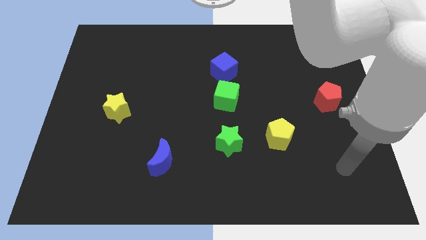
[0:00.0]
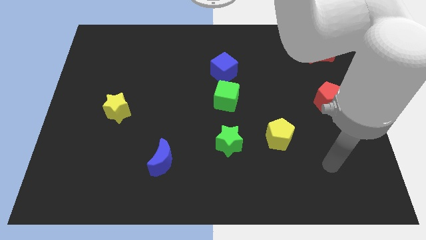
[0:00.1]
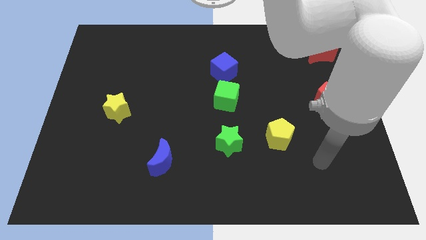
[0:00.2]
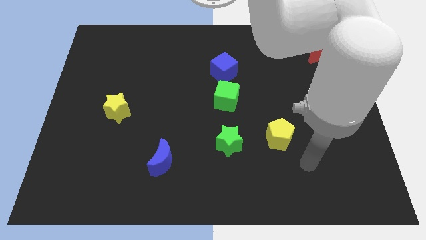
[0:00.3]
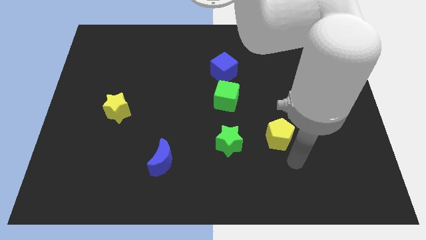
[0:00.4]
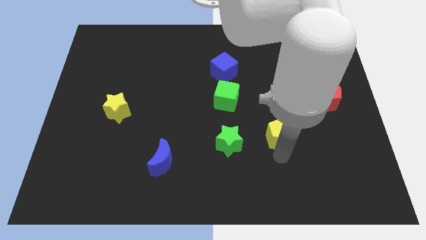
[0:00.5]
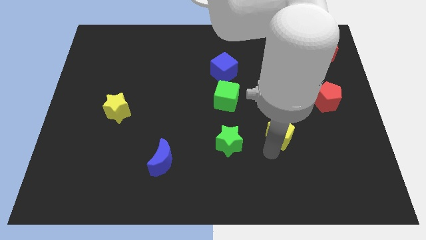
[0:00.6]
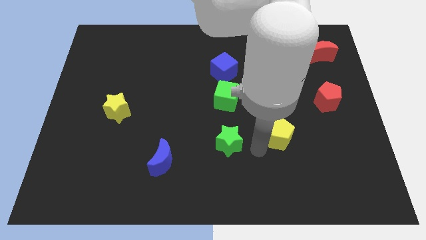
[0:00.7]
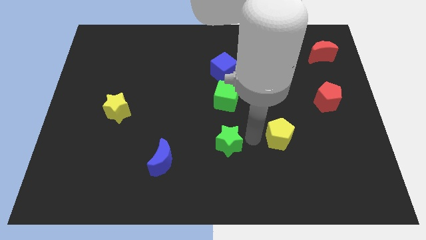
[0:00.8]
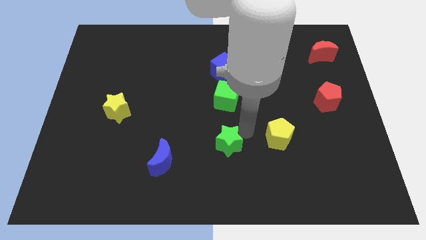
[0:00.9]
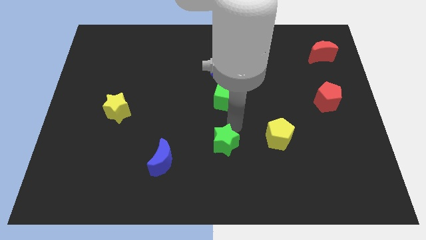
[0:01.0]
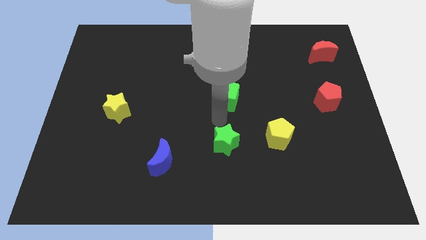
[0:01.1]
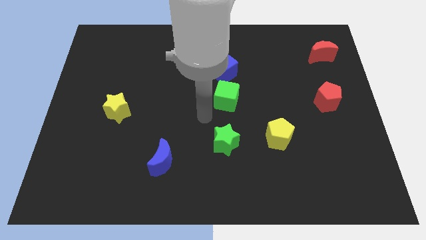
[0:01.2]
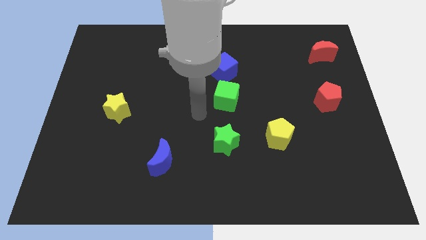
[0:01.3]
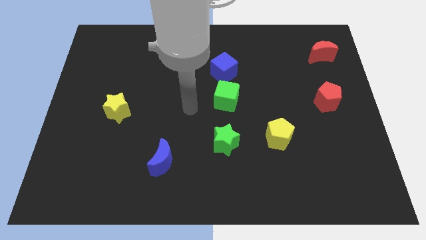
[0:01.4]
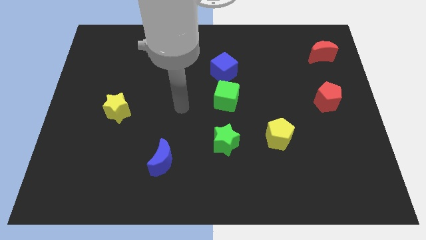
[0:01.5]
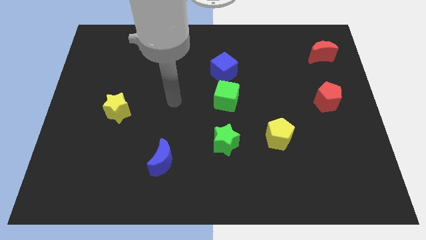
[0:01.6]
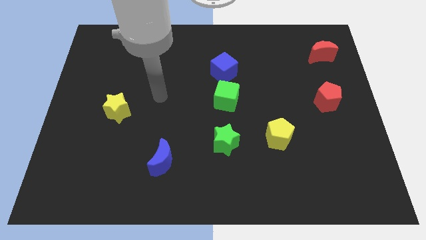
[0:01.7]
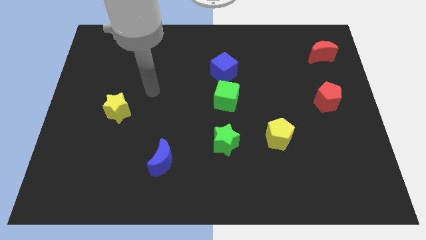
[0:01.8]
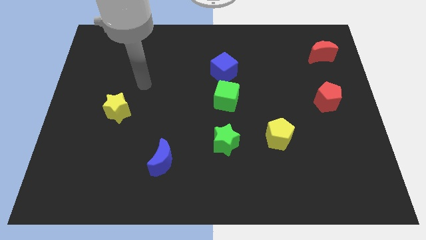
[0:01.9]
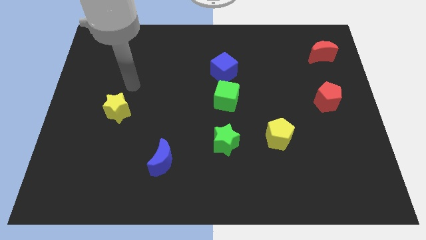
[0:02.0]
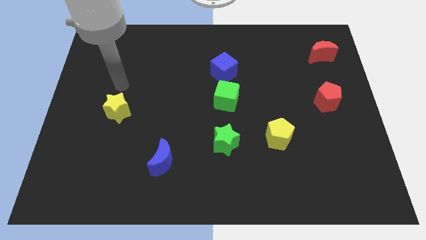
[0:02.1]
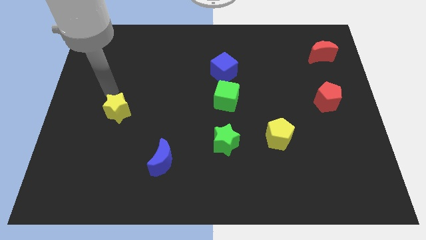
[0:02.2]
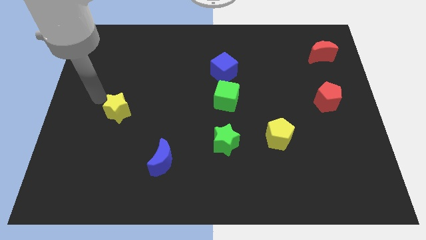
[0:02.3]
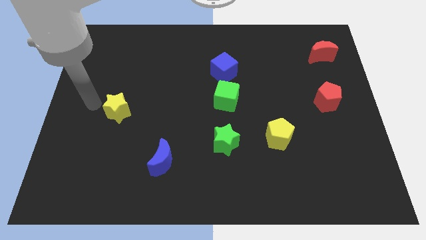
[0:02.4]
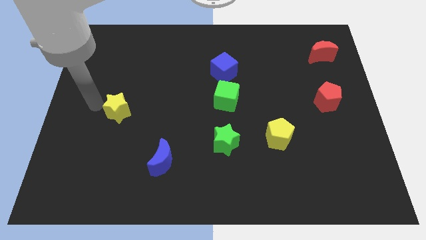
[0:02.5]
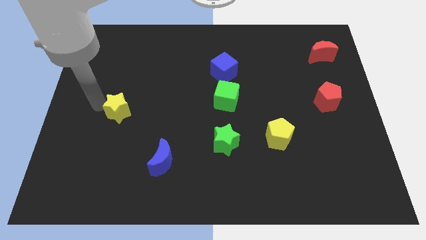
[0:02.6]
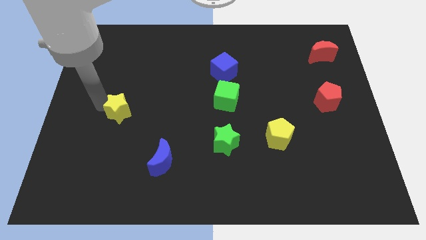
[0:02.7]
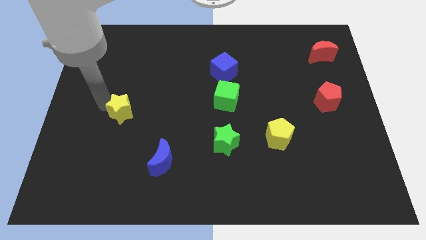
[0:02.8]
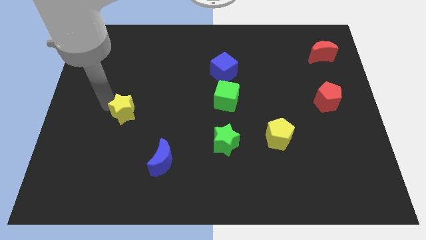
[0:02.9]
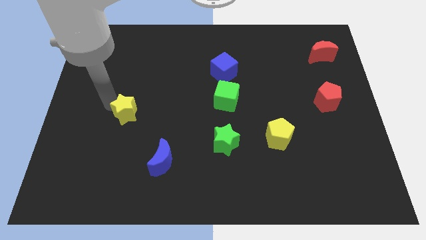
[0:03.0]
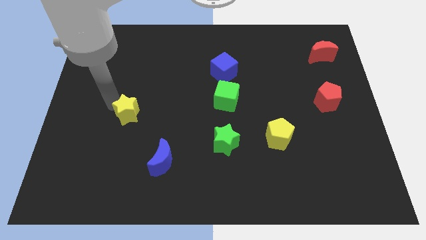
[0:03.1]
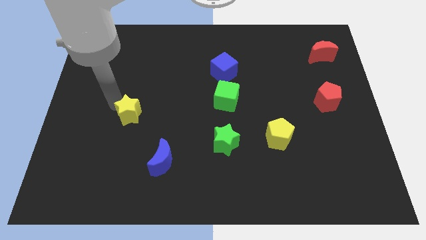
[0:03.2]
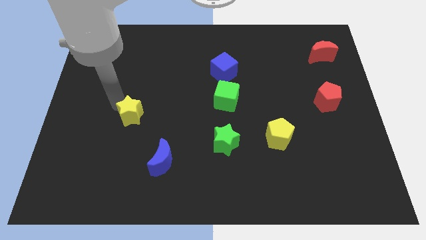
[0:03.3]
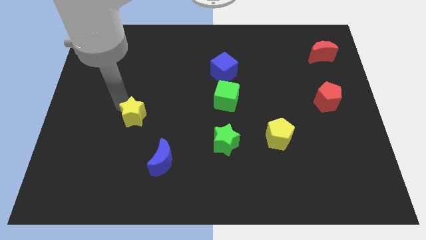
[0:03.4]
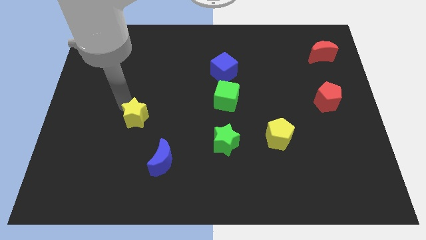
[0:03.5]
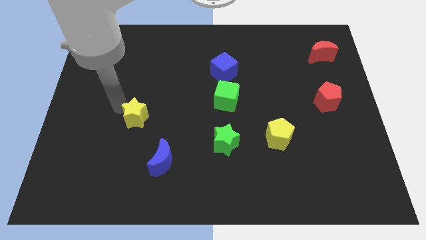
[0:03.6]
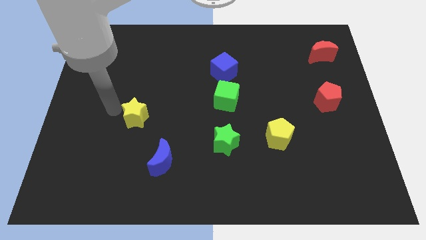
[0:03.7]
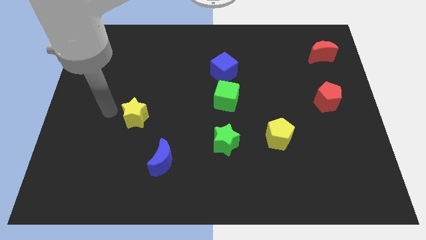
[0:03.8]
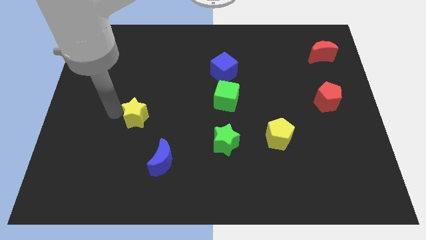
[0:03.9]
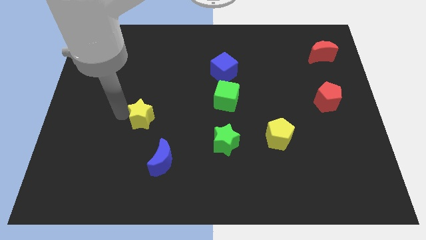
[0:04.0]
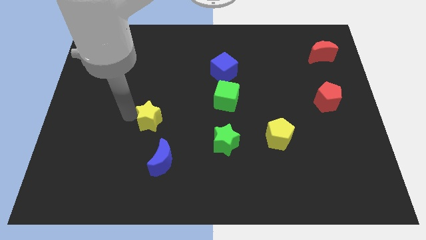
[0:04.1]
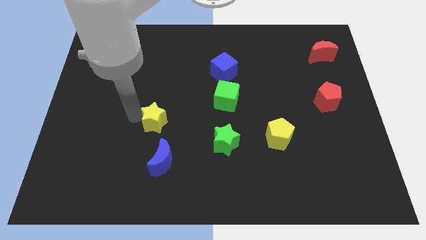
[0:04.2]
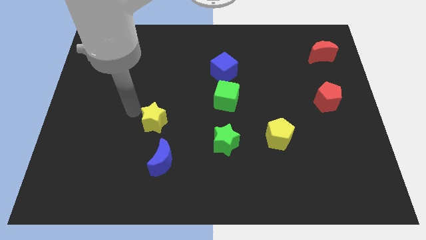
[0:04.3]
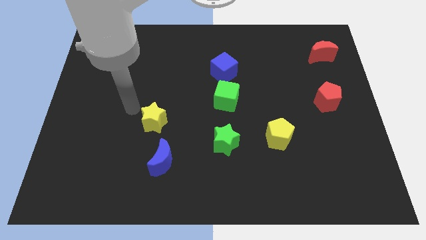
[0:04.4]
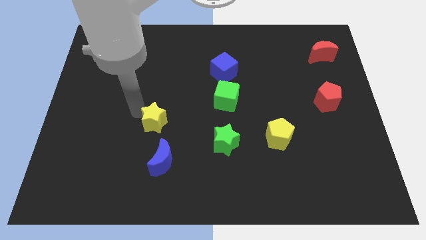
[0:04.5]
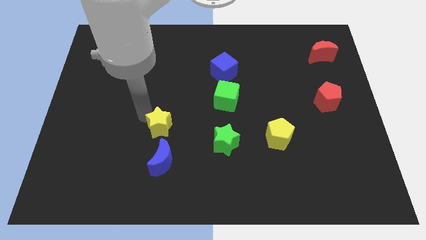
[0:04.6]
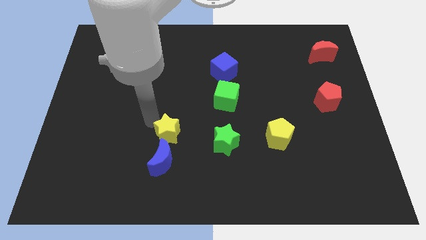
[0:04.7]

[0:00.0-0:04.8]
slide the yellow star to the top right of the blue moon

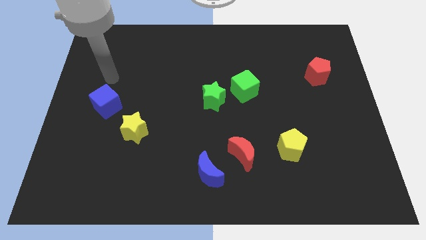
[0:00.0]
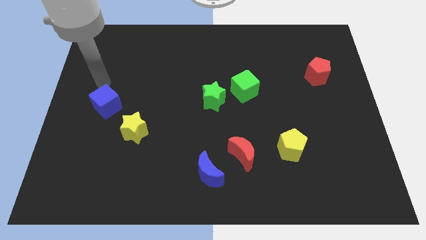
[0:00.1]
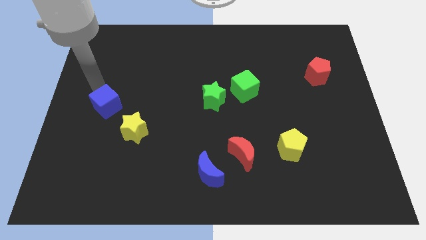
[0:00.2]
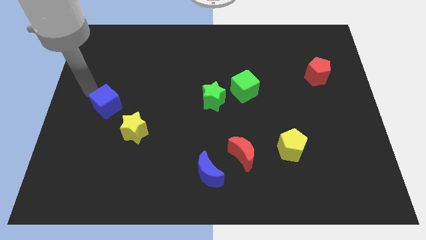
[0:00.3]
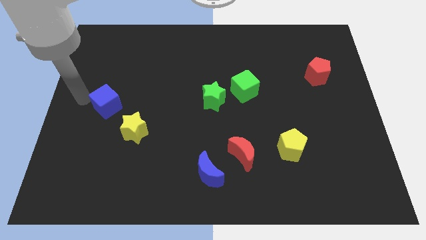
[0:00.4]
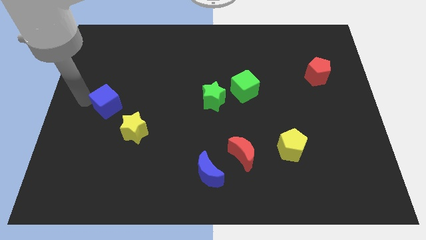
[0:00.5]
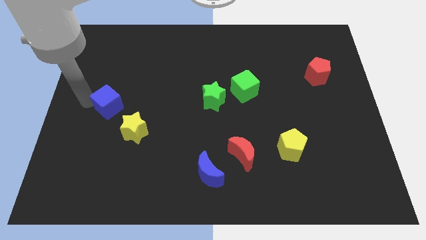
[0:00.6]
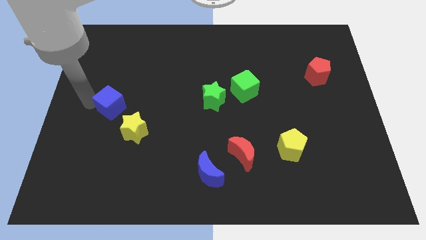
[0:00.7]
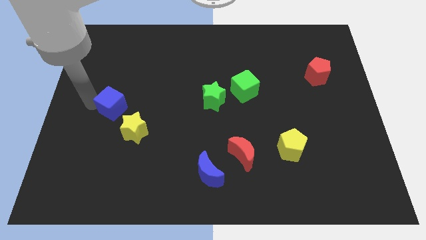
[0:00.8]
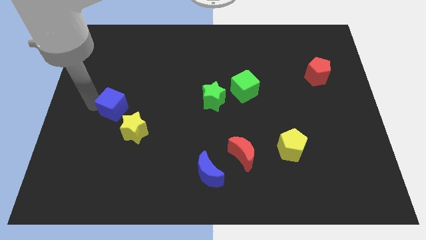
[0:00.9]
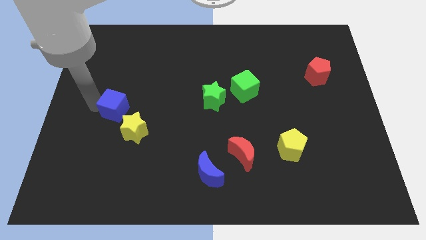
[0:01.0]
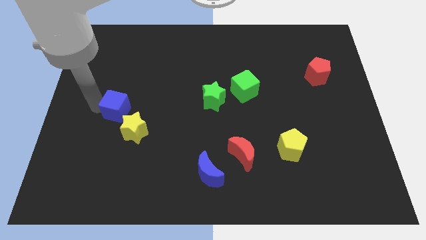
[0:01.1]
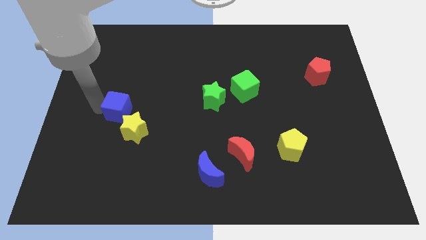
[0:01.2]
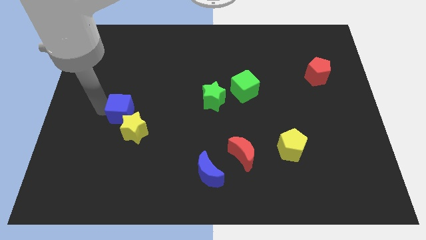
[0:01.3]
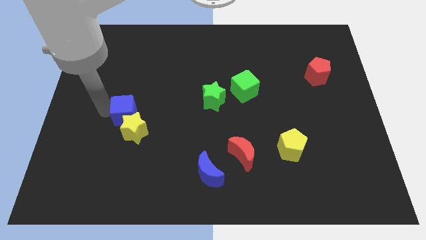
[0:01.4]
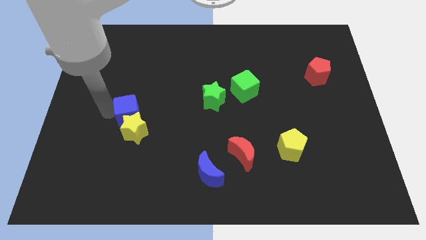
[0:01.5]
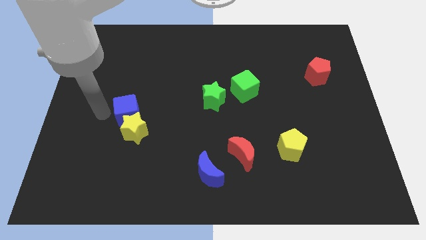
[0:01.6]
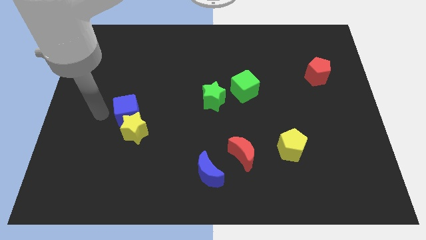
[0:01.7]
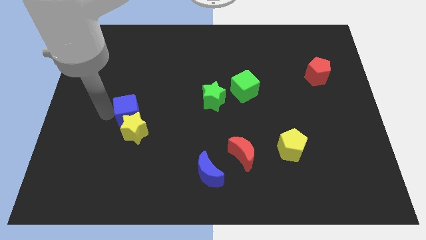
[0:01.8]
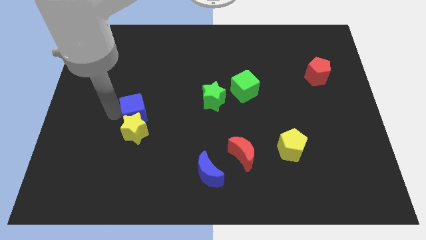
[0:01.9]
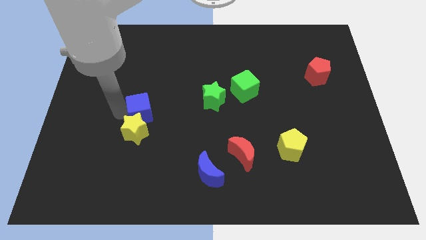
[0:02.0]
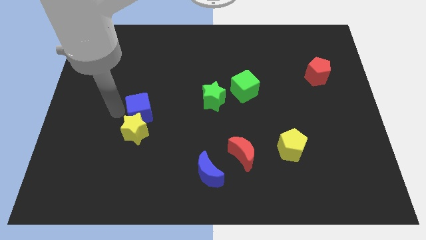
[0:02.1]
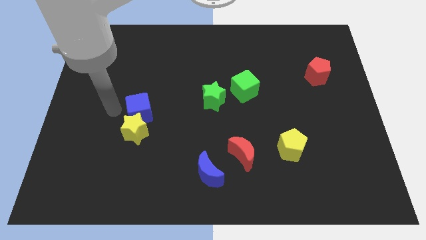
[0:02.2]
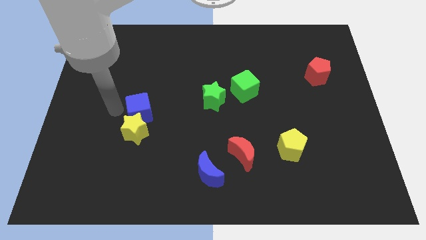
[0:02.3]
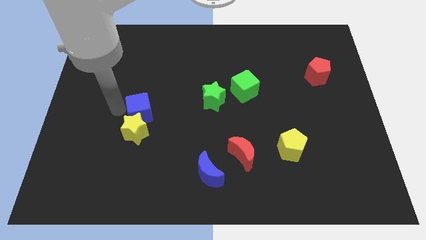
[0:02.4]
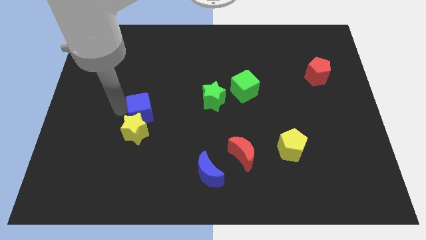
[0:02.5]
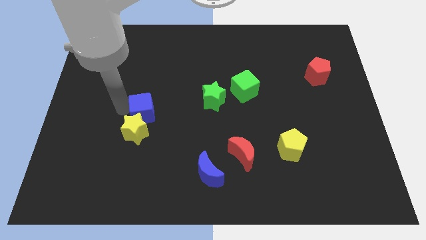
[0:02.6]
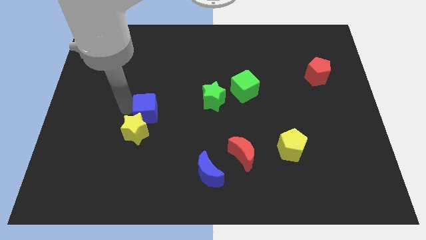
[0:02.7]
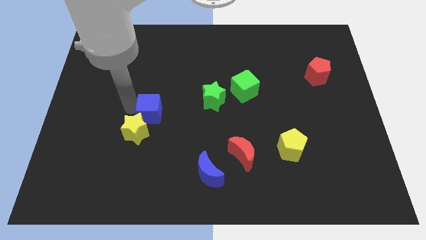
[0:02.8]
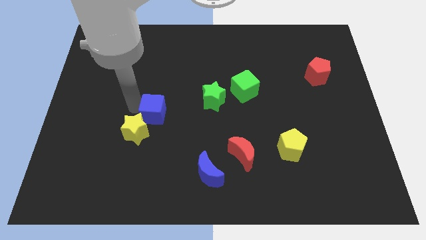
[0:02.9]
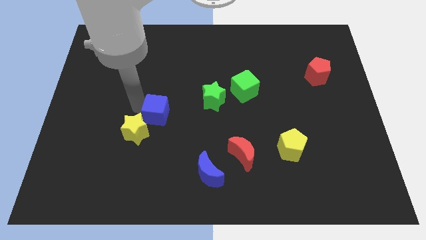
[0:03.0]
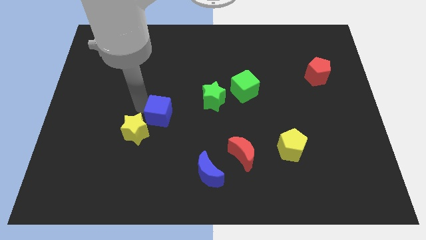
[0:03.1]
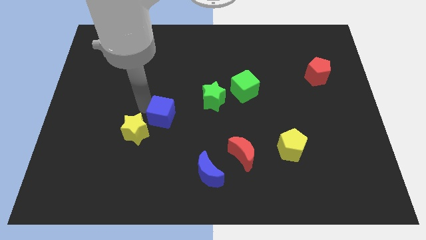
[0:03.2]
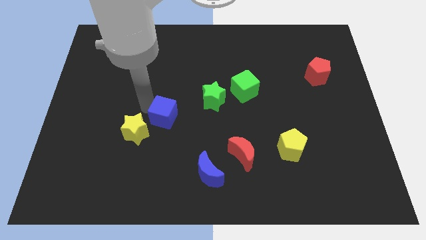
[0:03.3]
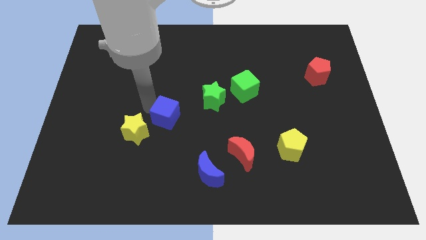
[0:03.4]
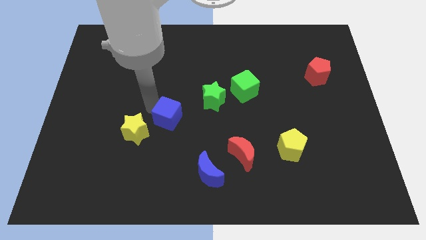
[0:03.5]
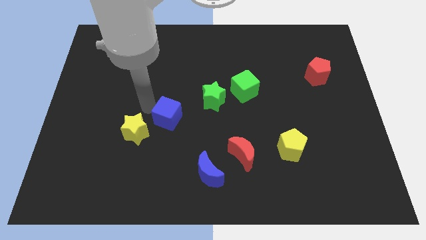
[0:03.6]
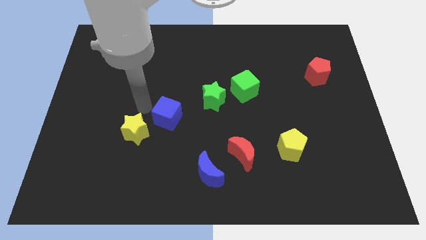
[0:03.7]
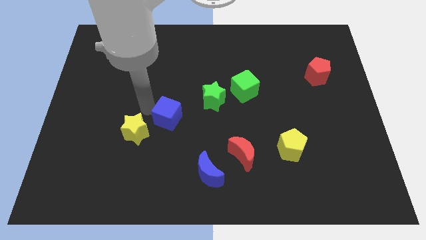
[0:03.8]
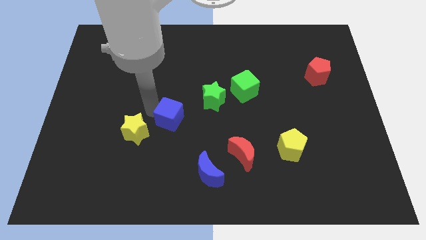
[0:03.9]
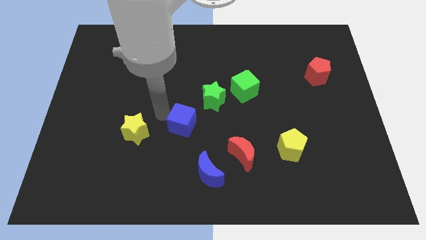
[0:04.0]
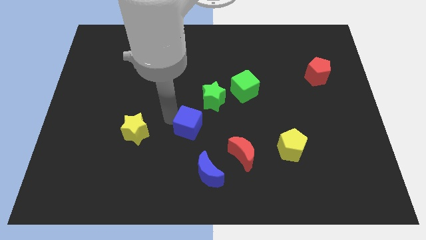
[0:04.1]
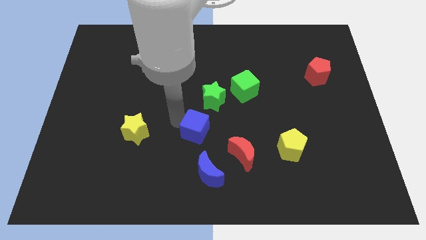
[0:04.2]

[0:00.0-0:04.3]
push the blue cube to the top left of the red moon
